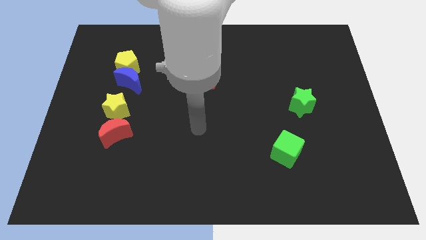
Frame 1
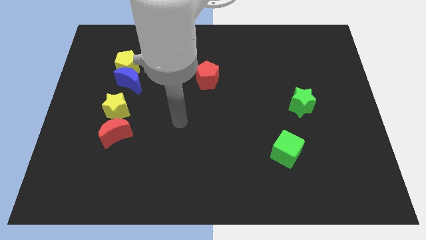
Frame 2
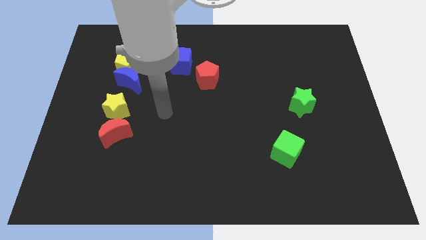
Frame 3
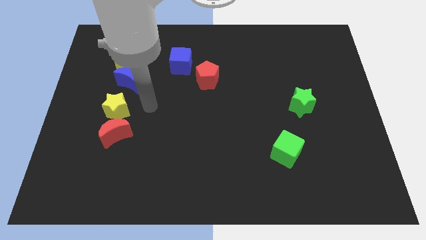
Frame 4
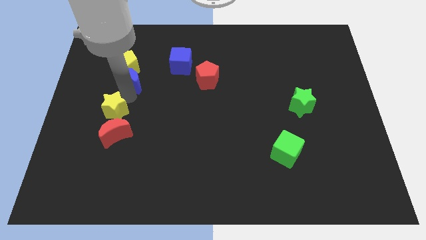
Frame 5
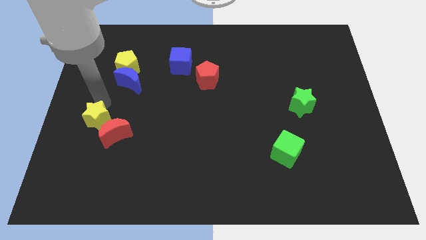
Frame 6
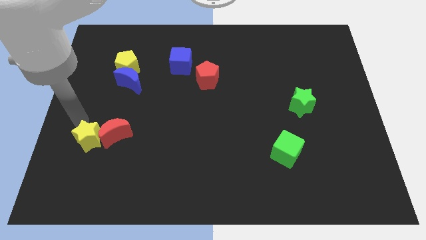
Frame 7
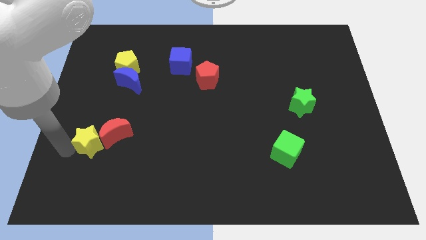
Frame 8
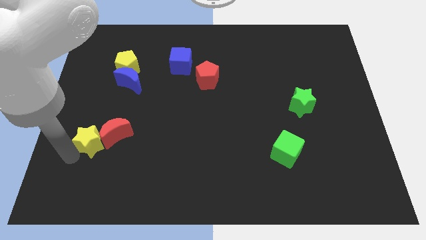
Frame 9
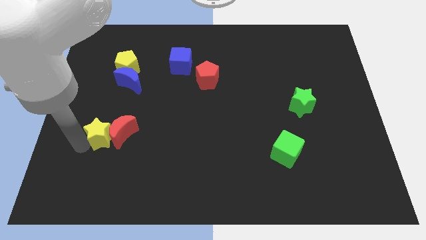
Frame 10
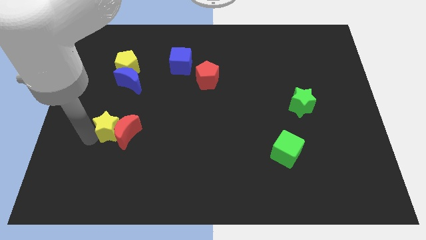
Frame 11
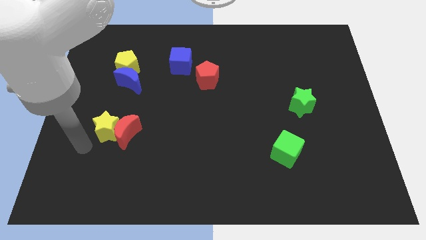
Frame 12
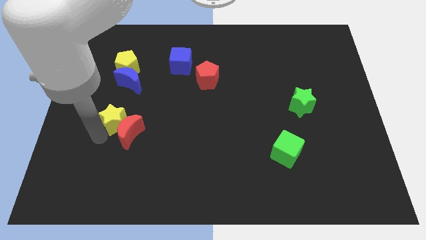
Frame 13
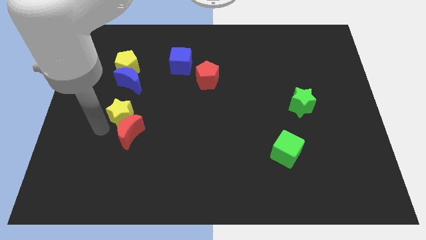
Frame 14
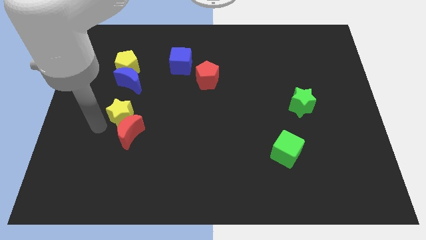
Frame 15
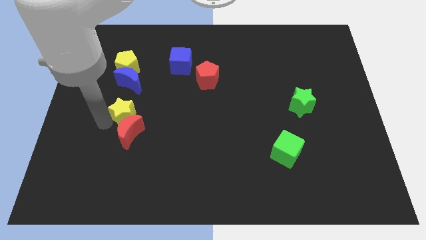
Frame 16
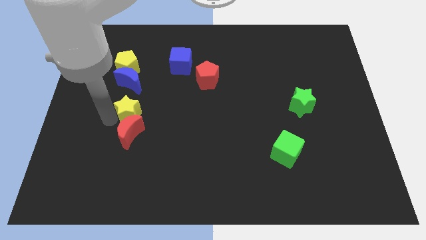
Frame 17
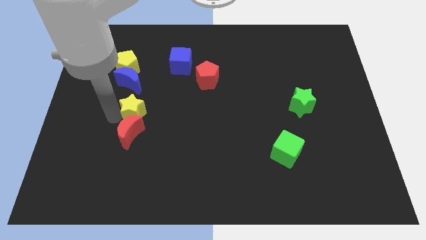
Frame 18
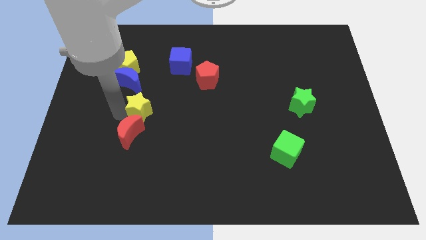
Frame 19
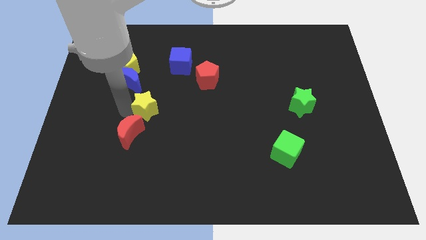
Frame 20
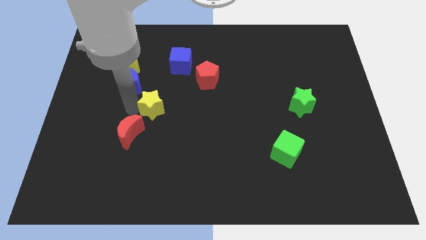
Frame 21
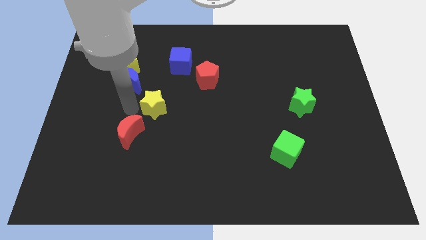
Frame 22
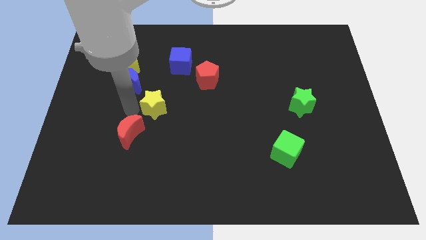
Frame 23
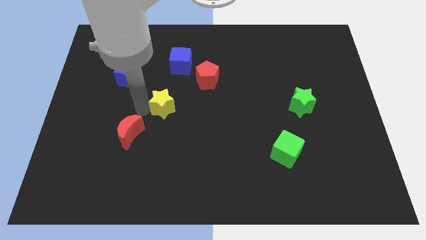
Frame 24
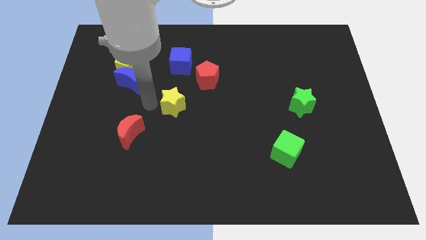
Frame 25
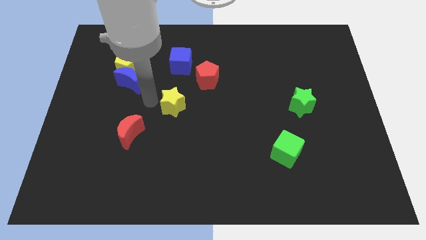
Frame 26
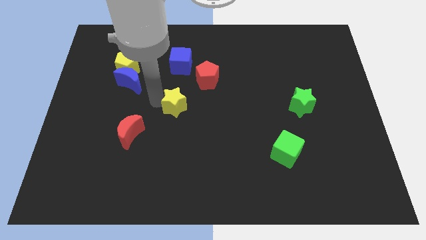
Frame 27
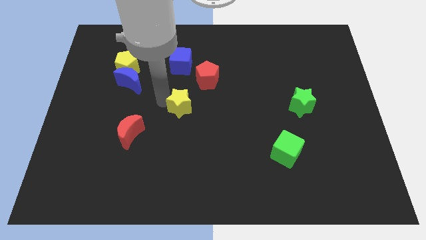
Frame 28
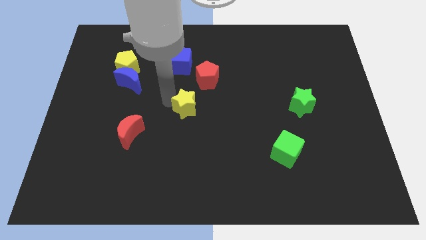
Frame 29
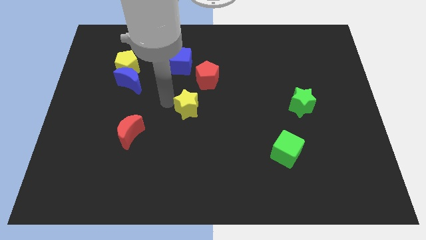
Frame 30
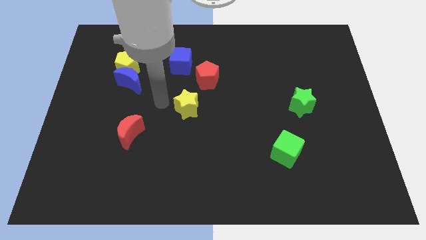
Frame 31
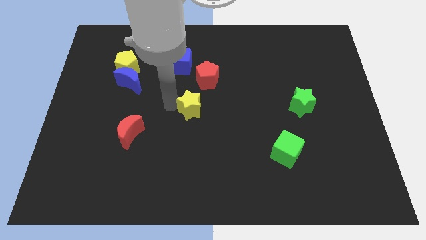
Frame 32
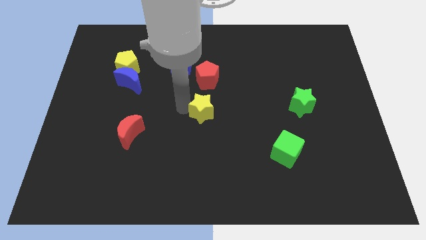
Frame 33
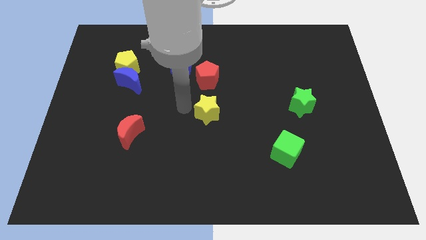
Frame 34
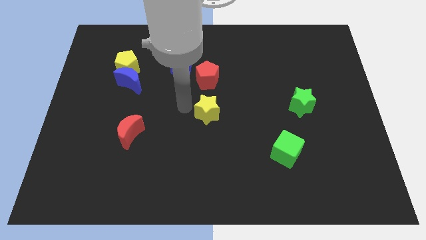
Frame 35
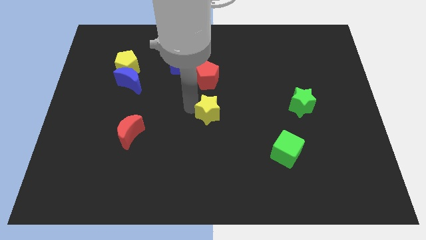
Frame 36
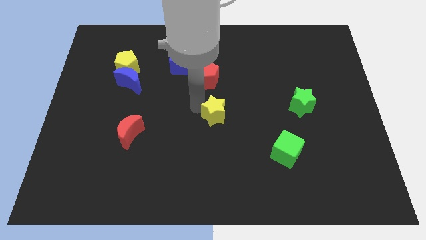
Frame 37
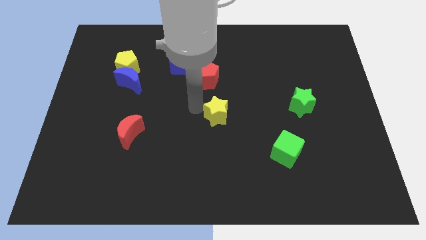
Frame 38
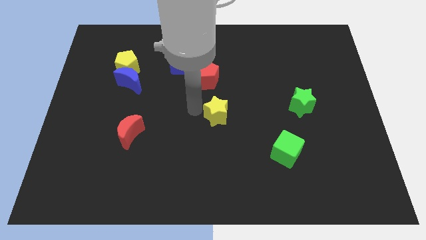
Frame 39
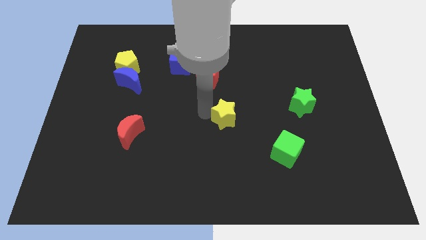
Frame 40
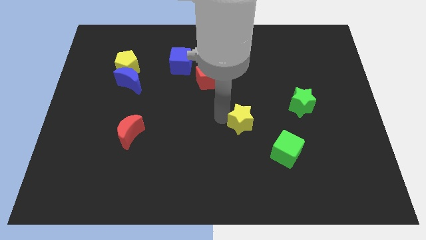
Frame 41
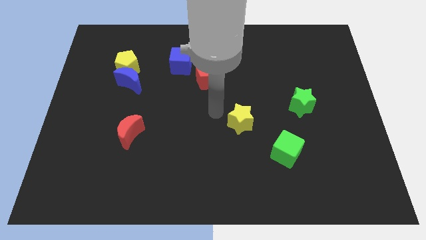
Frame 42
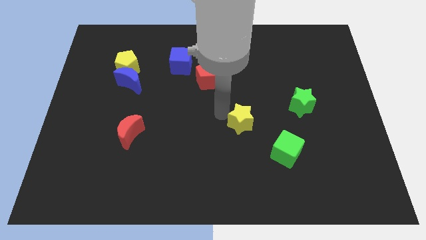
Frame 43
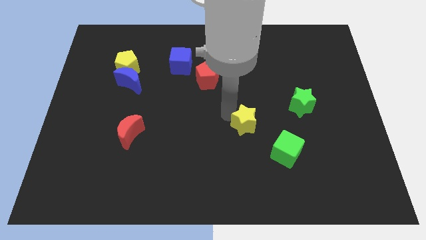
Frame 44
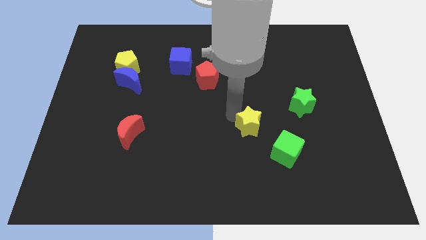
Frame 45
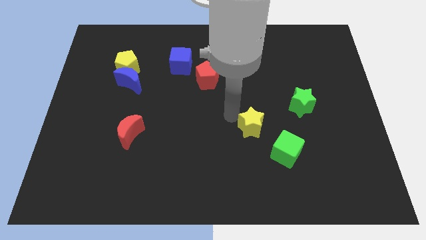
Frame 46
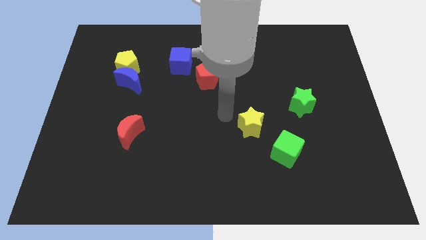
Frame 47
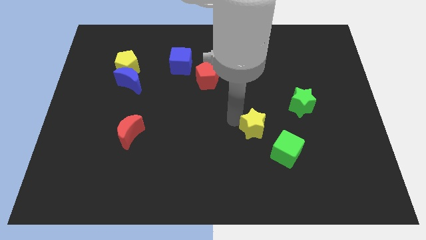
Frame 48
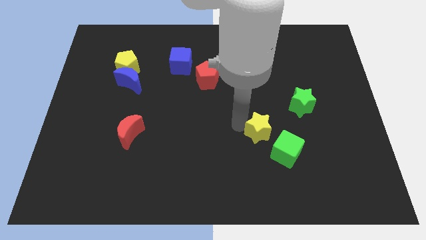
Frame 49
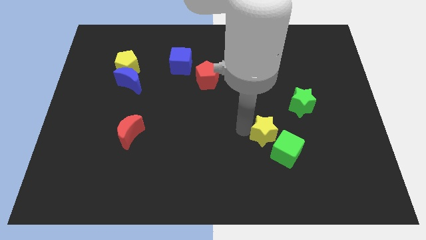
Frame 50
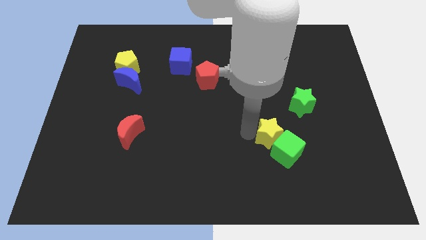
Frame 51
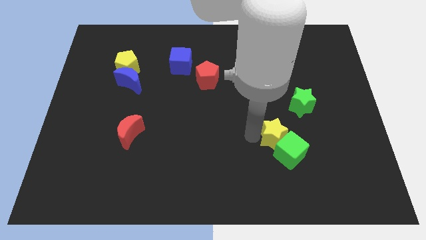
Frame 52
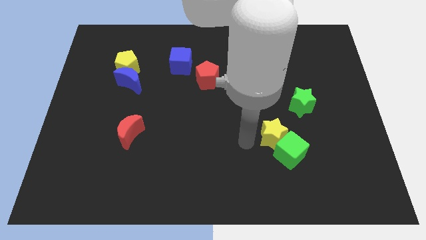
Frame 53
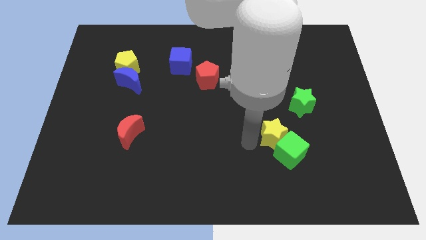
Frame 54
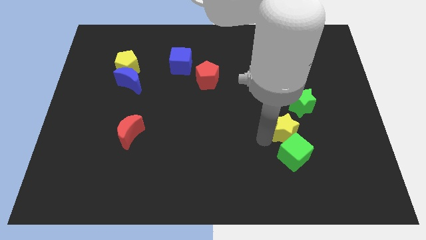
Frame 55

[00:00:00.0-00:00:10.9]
push the yellow star to the top right of the green cube
